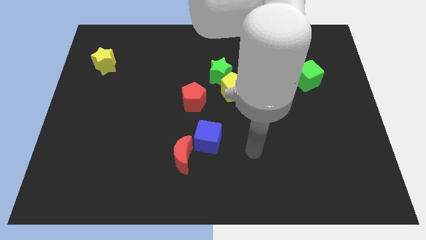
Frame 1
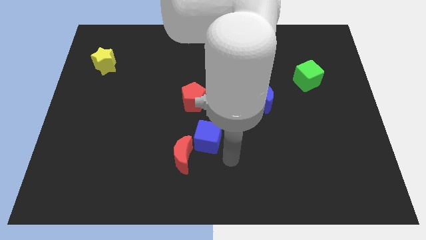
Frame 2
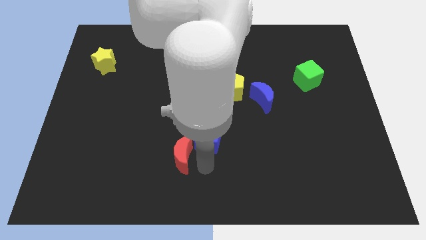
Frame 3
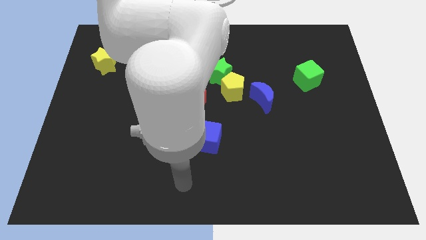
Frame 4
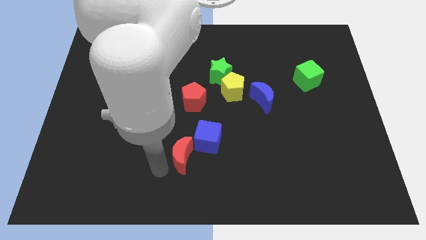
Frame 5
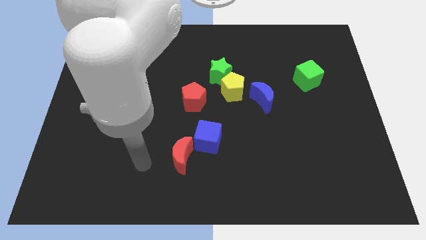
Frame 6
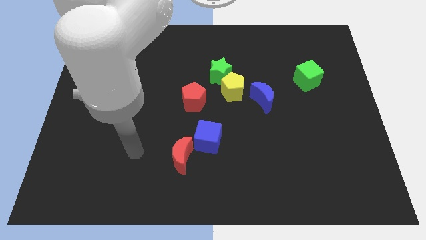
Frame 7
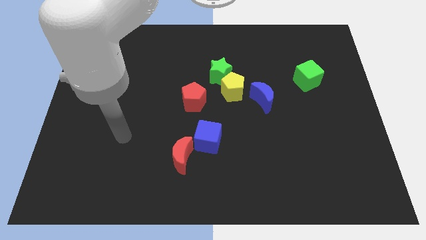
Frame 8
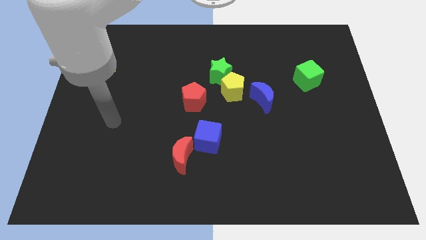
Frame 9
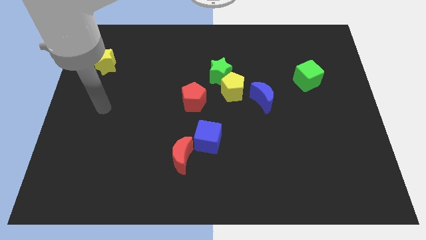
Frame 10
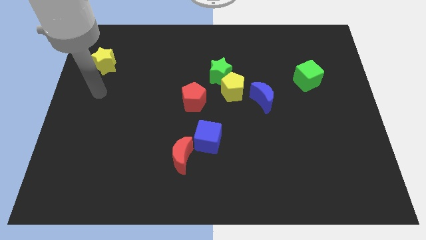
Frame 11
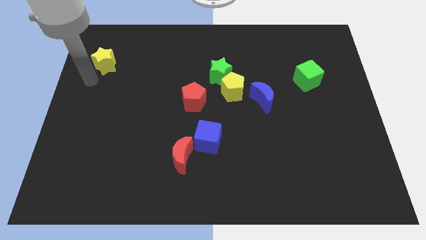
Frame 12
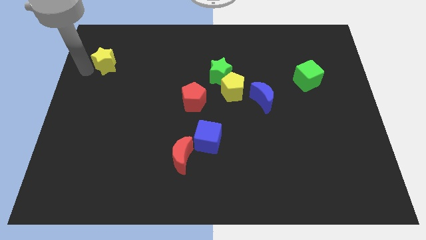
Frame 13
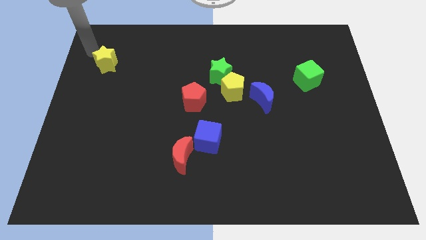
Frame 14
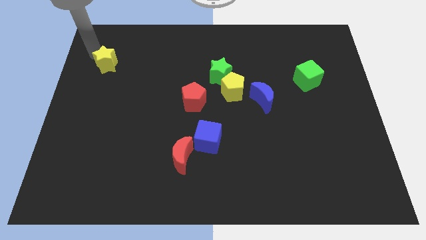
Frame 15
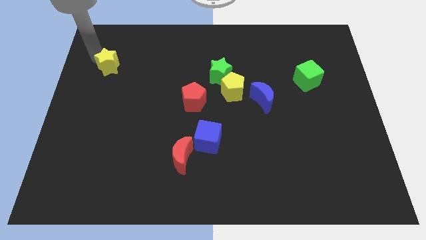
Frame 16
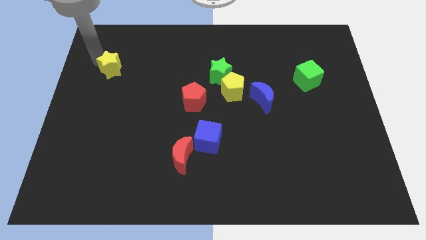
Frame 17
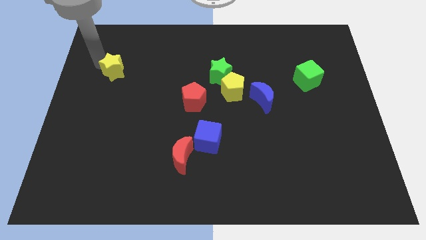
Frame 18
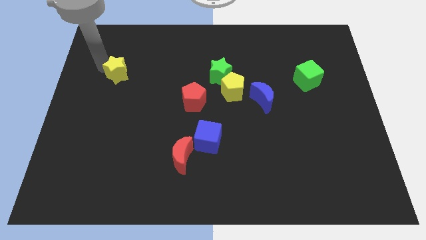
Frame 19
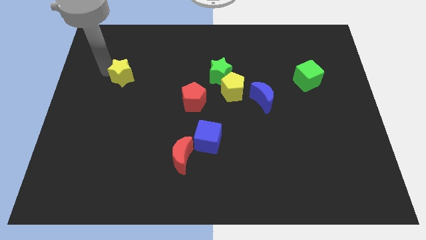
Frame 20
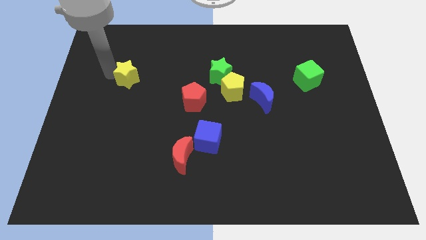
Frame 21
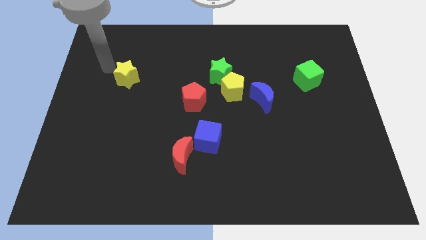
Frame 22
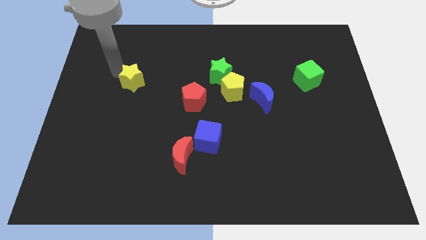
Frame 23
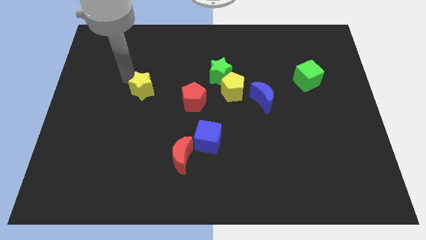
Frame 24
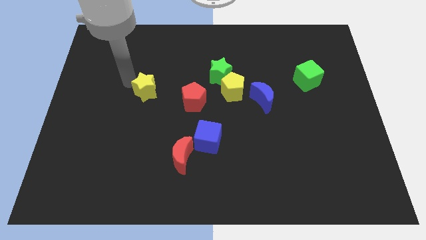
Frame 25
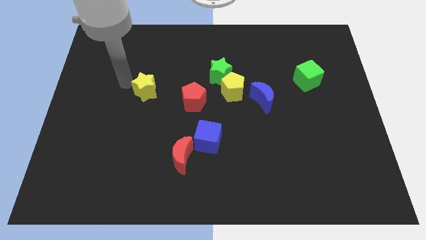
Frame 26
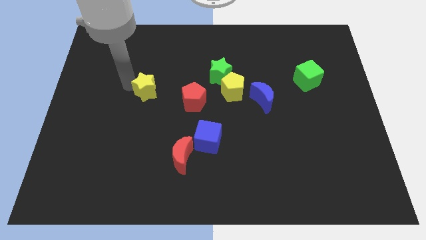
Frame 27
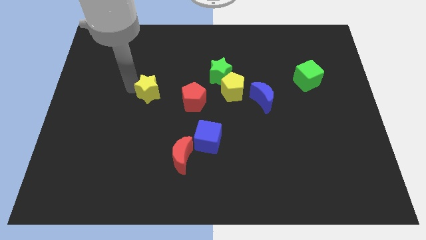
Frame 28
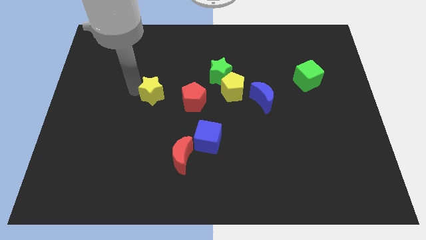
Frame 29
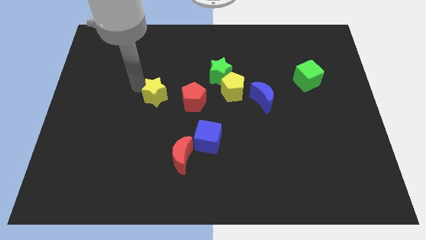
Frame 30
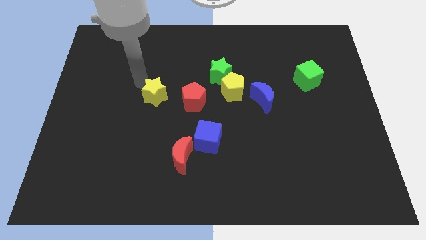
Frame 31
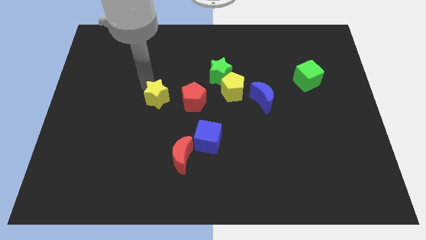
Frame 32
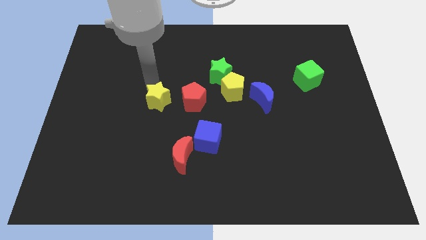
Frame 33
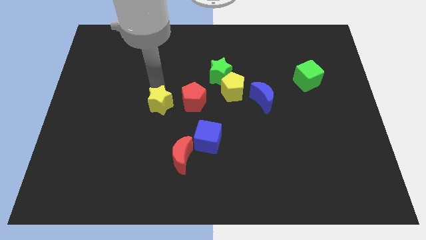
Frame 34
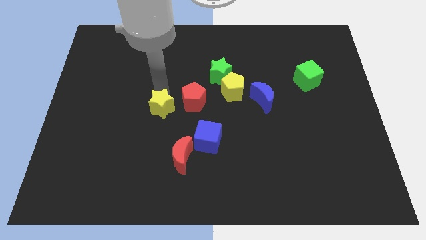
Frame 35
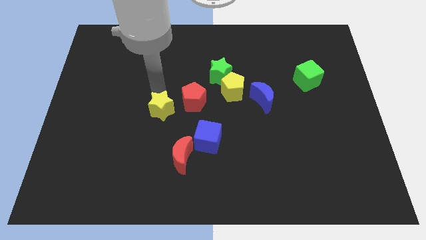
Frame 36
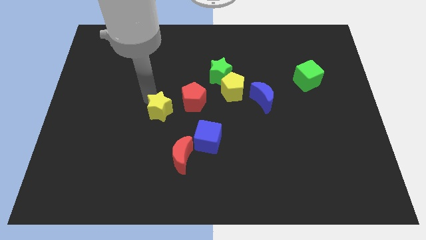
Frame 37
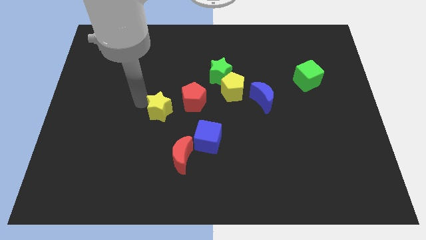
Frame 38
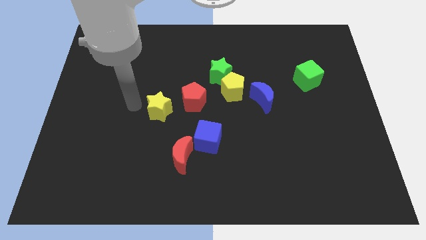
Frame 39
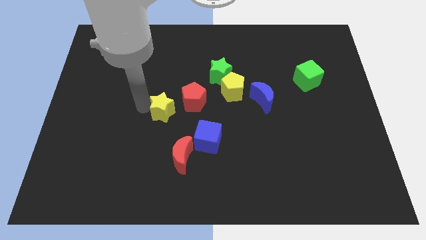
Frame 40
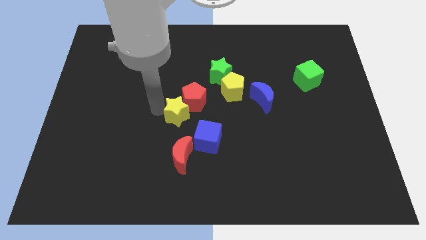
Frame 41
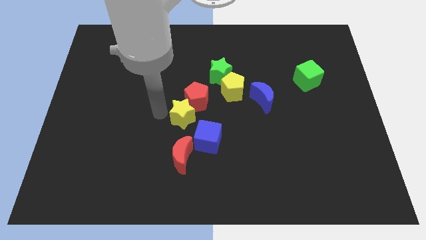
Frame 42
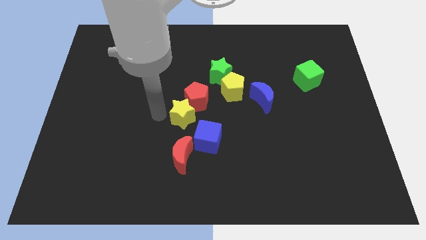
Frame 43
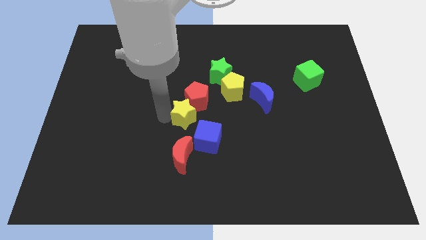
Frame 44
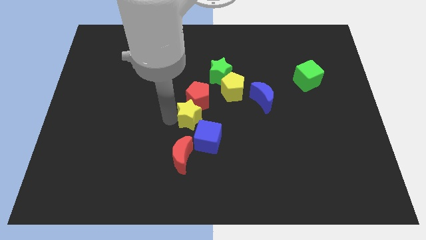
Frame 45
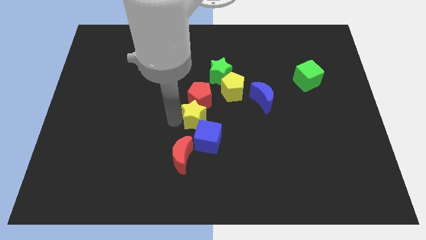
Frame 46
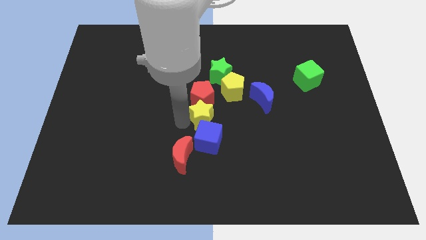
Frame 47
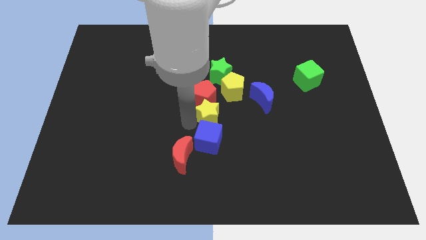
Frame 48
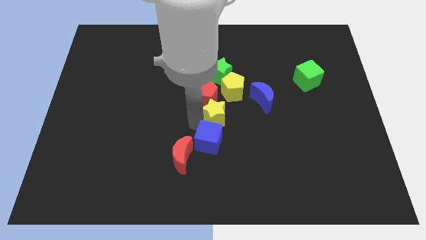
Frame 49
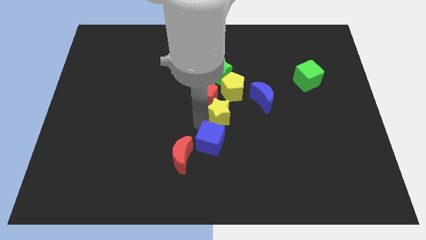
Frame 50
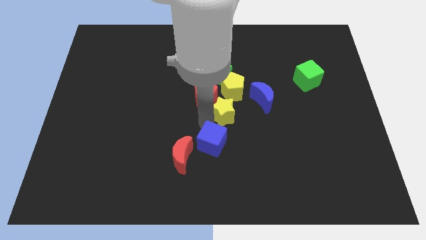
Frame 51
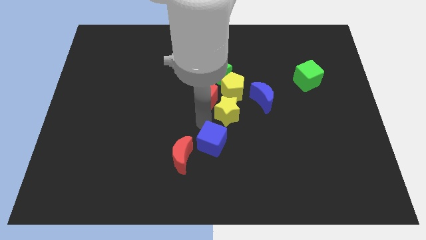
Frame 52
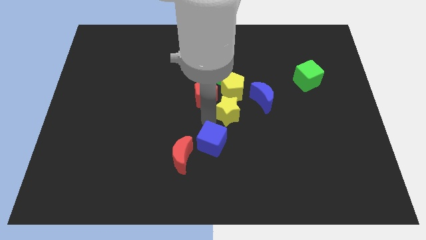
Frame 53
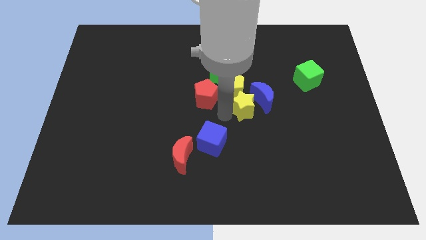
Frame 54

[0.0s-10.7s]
move the yellow star next to the blue moon
